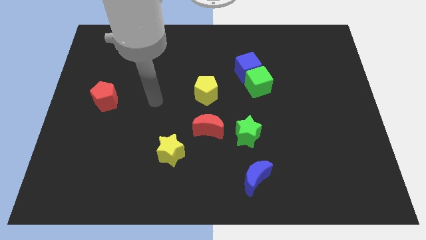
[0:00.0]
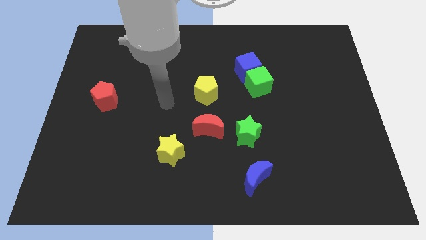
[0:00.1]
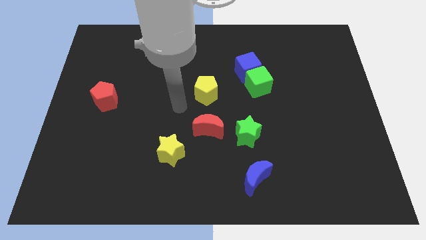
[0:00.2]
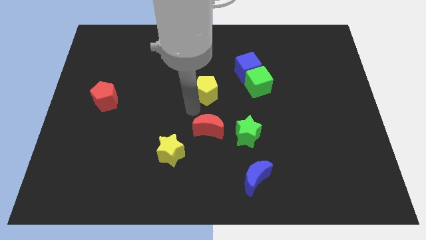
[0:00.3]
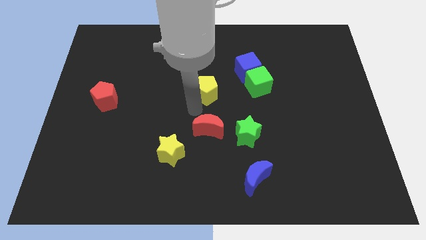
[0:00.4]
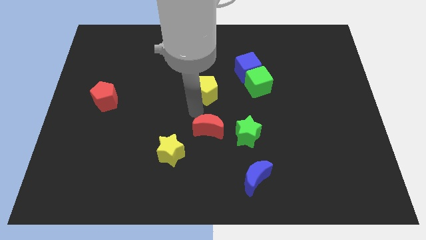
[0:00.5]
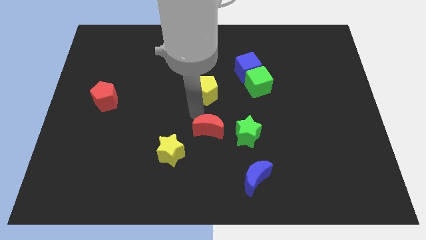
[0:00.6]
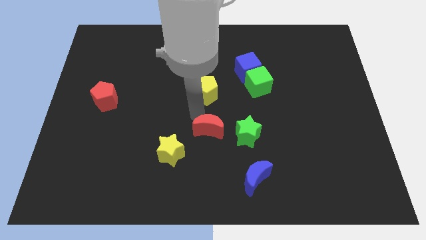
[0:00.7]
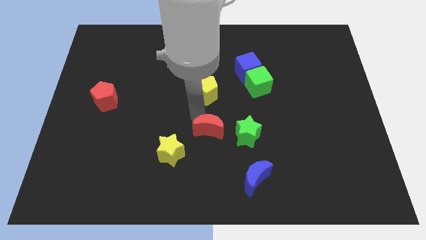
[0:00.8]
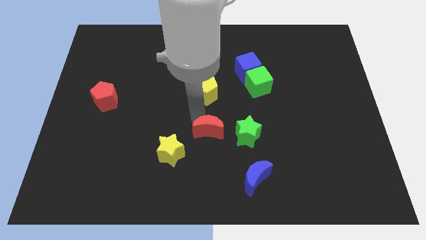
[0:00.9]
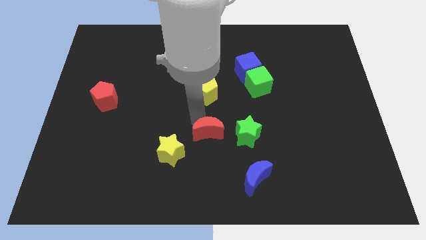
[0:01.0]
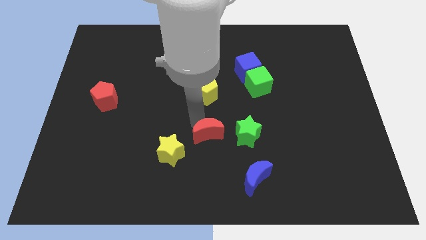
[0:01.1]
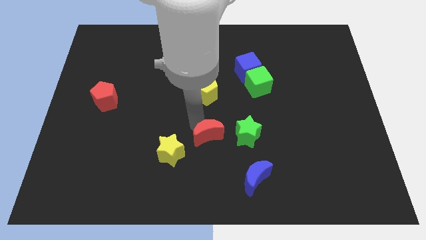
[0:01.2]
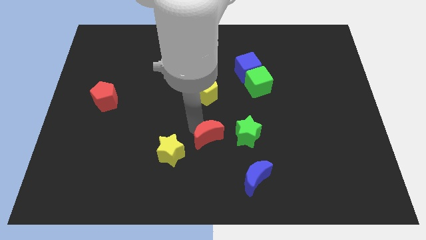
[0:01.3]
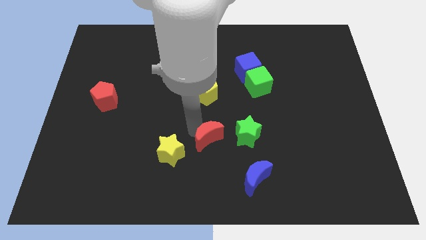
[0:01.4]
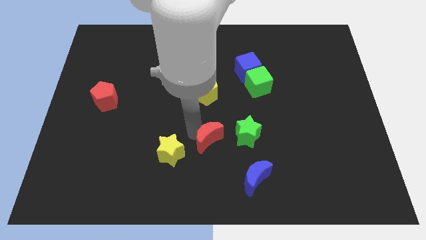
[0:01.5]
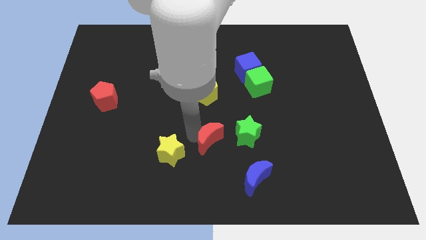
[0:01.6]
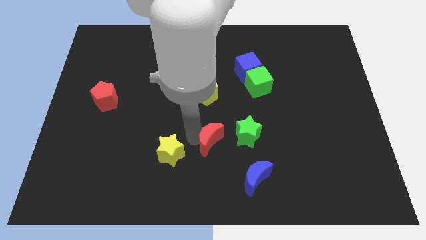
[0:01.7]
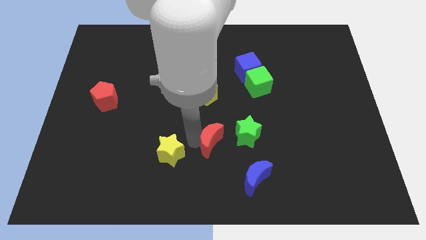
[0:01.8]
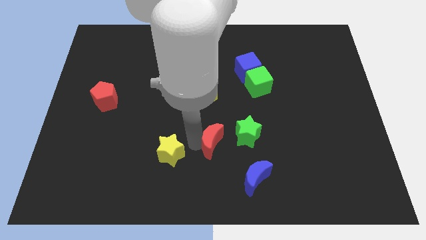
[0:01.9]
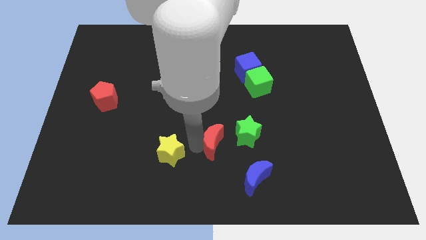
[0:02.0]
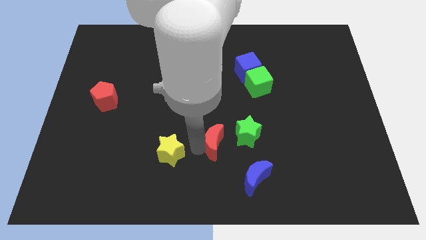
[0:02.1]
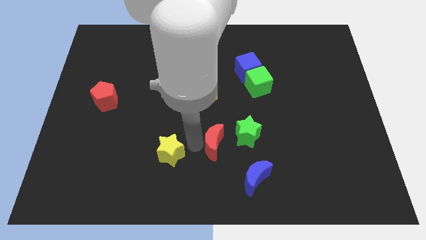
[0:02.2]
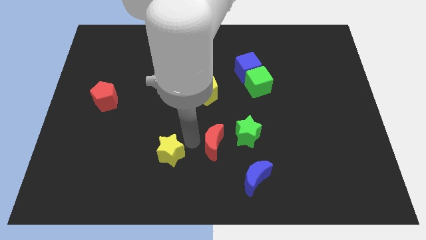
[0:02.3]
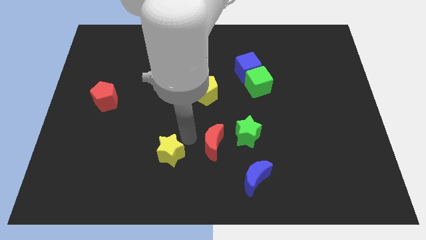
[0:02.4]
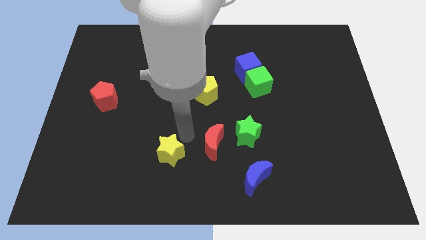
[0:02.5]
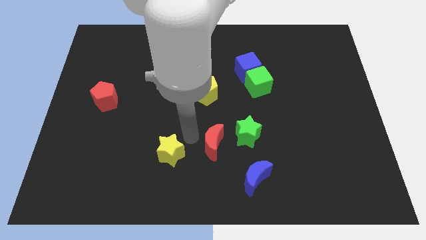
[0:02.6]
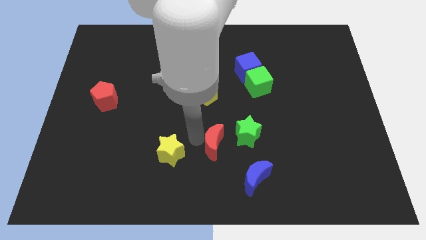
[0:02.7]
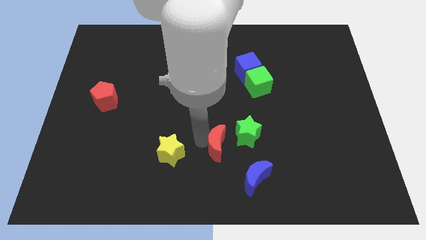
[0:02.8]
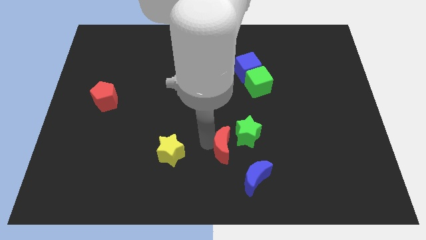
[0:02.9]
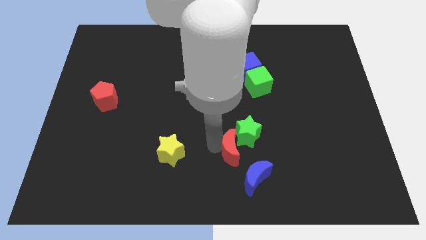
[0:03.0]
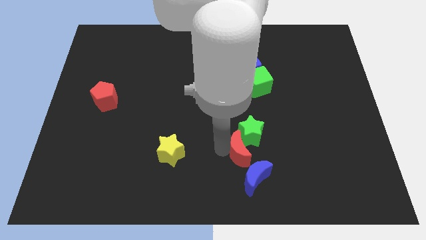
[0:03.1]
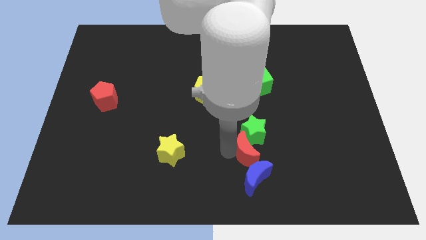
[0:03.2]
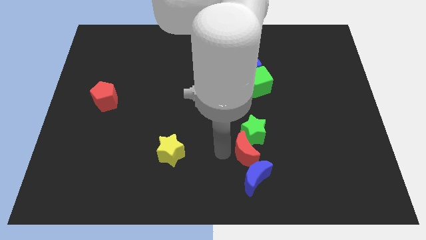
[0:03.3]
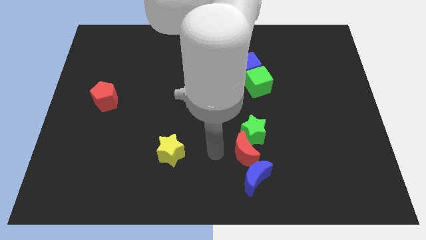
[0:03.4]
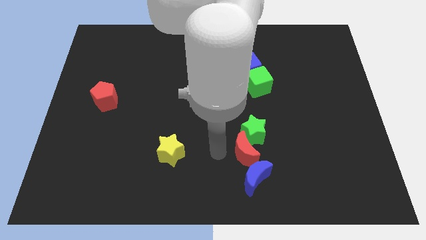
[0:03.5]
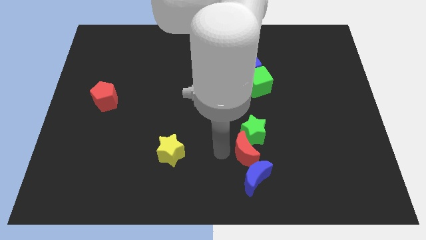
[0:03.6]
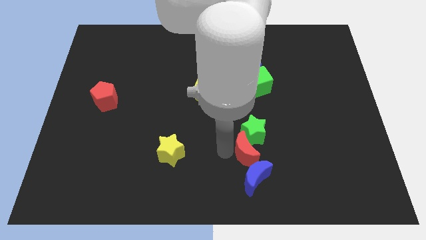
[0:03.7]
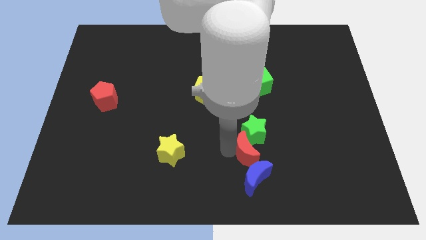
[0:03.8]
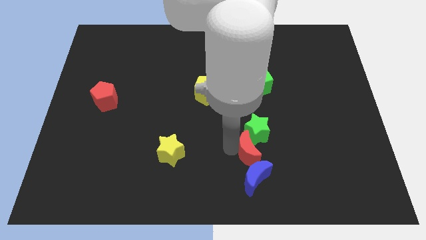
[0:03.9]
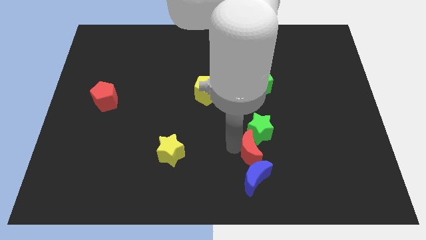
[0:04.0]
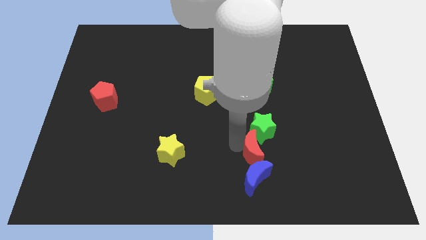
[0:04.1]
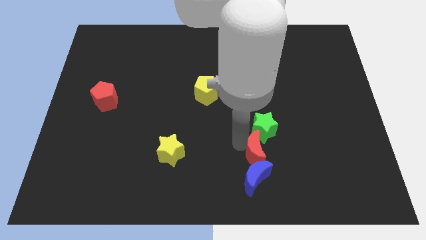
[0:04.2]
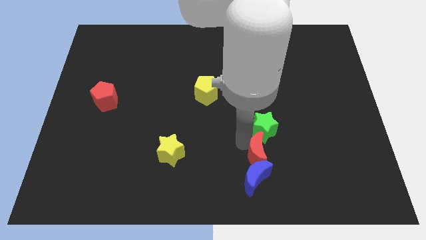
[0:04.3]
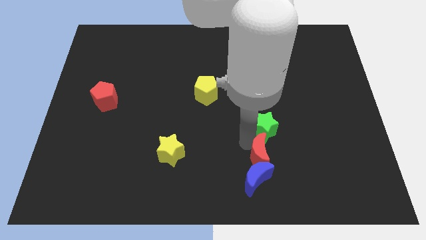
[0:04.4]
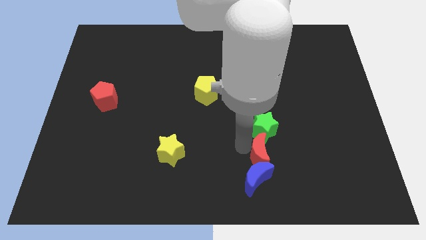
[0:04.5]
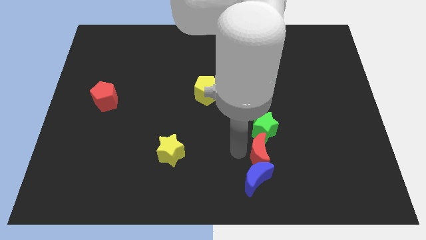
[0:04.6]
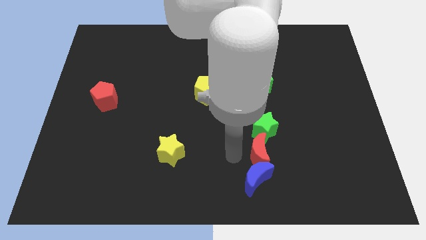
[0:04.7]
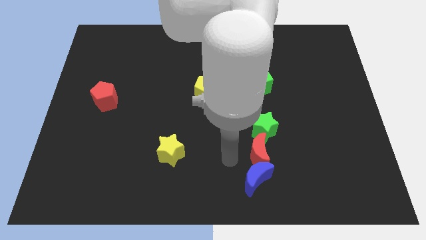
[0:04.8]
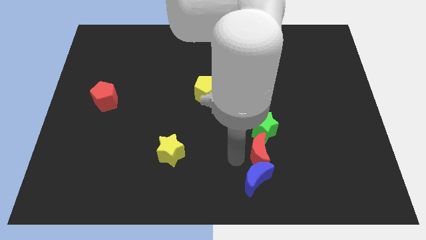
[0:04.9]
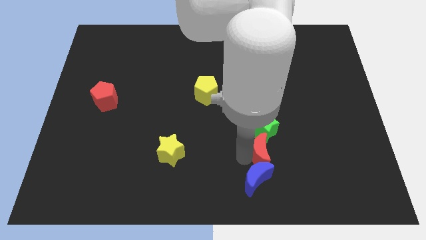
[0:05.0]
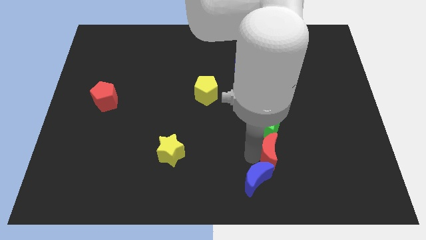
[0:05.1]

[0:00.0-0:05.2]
put the red moon diagonally down and to the right of the green star

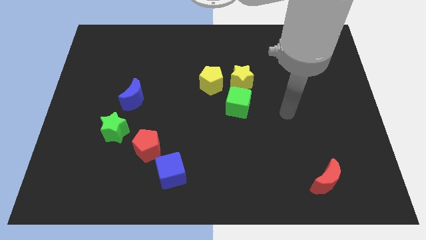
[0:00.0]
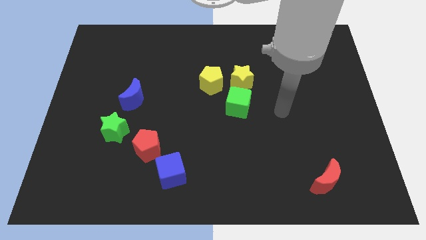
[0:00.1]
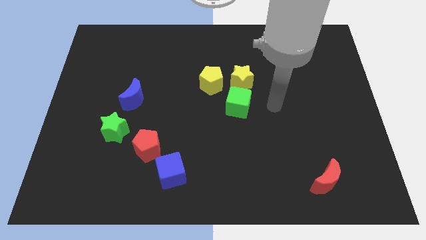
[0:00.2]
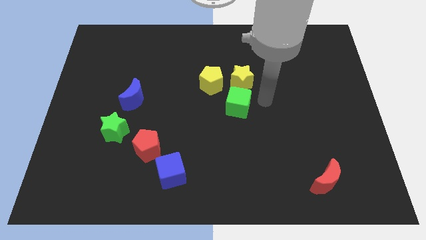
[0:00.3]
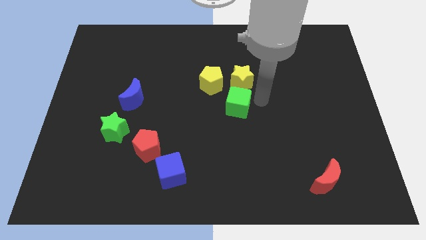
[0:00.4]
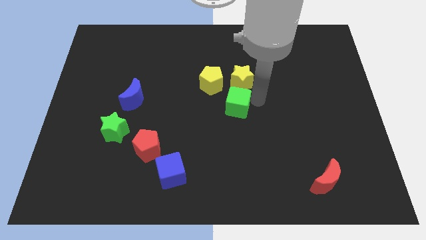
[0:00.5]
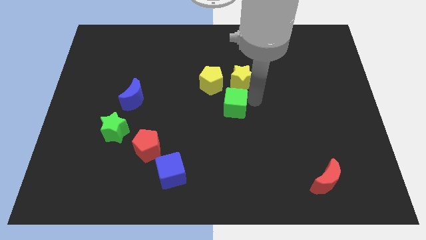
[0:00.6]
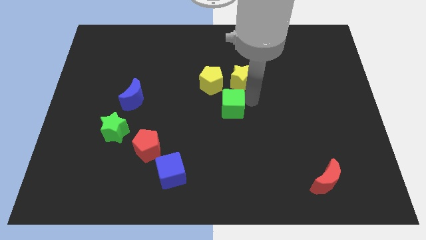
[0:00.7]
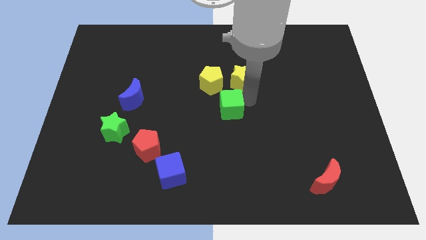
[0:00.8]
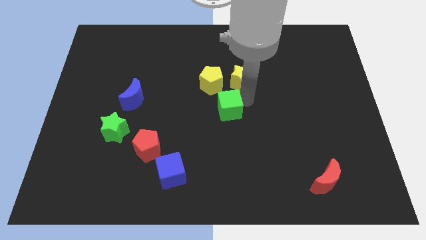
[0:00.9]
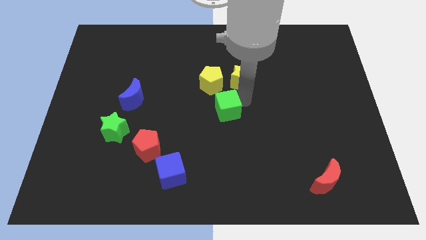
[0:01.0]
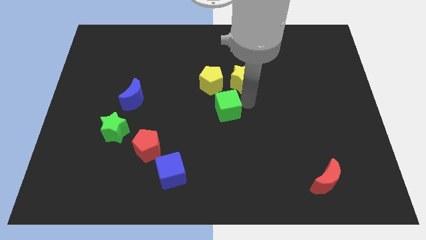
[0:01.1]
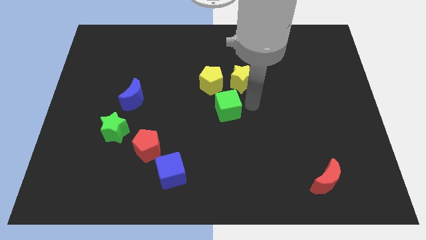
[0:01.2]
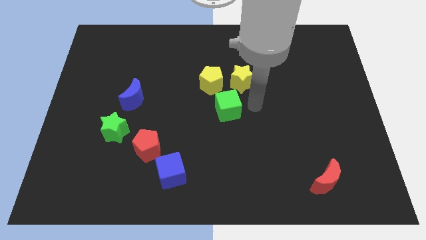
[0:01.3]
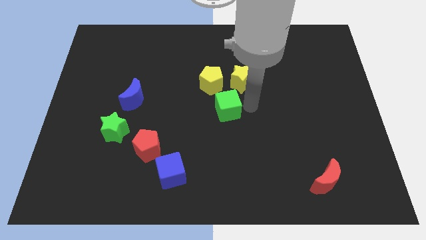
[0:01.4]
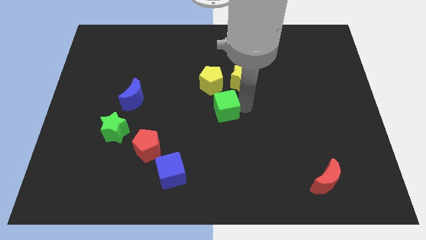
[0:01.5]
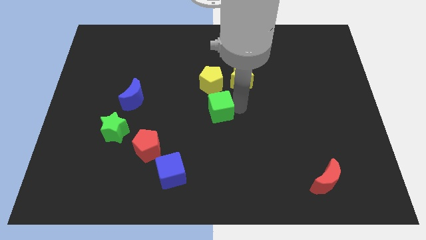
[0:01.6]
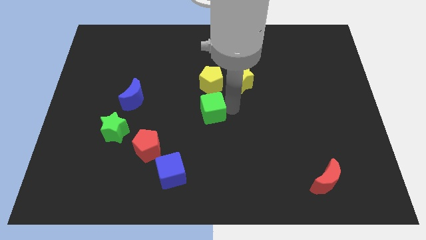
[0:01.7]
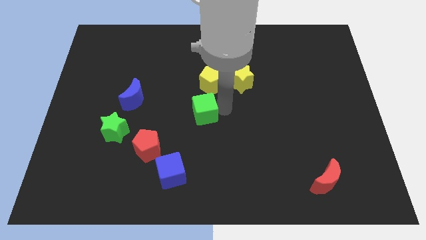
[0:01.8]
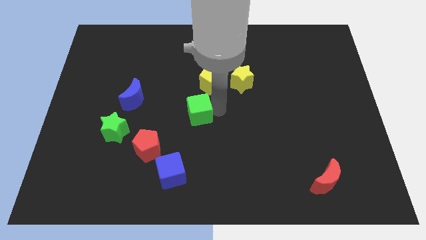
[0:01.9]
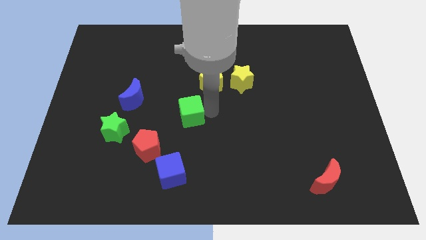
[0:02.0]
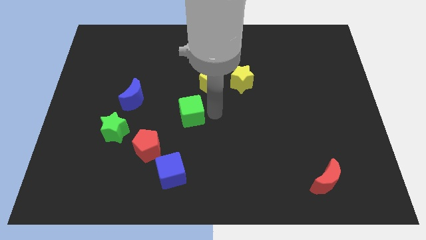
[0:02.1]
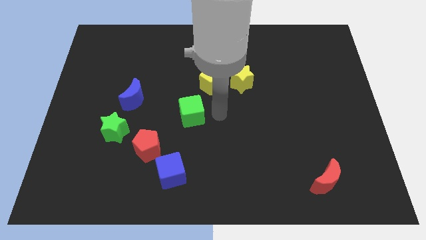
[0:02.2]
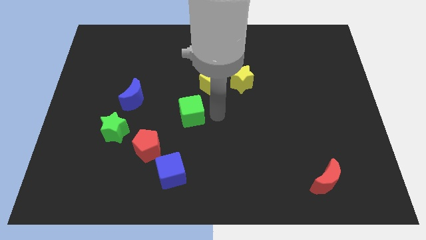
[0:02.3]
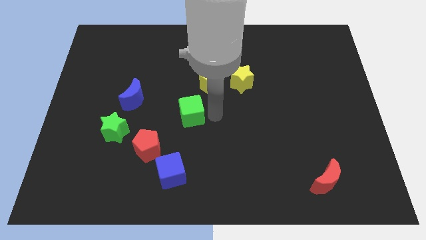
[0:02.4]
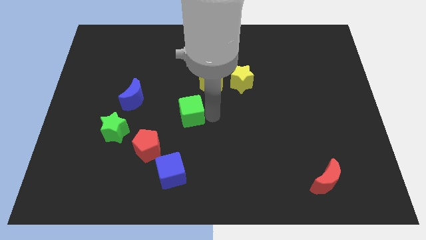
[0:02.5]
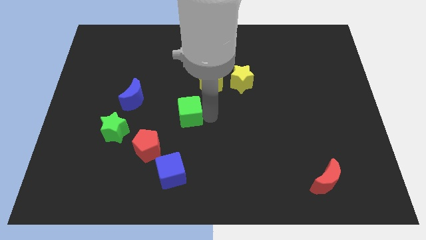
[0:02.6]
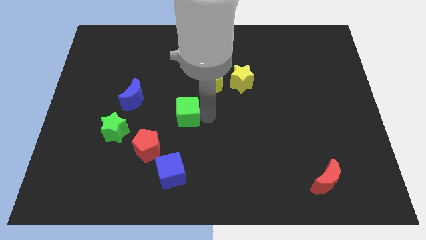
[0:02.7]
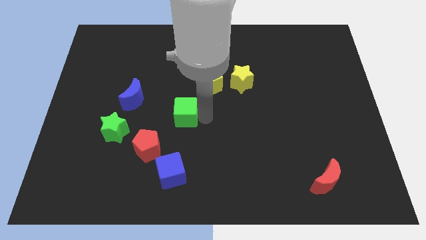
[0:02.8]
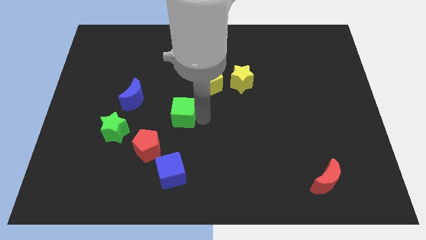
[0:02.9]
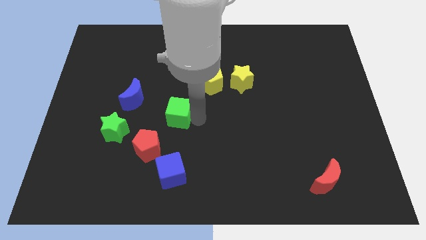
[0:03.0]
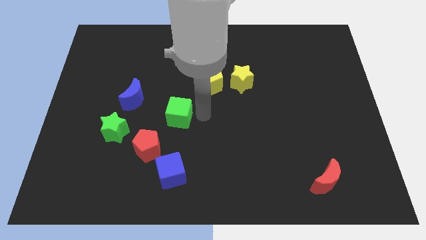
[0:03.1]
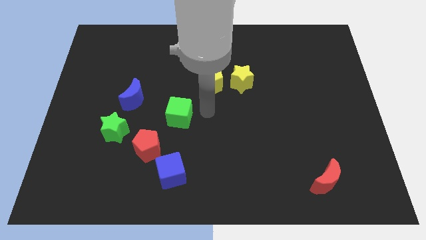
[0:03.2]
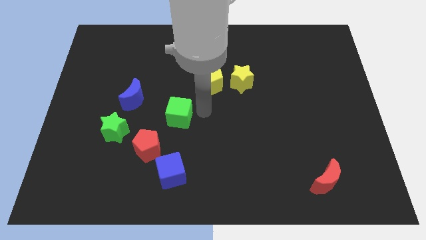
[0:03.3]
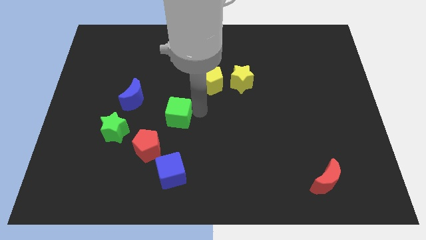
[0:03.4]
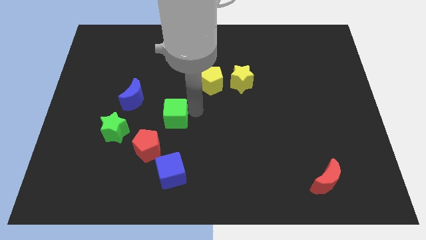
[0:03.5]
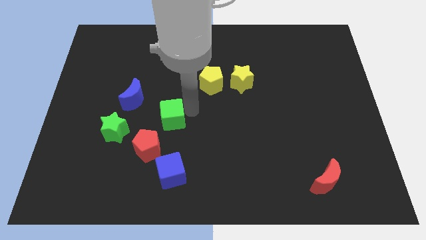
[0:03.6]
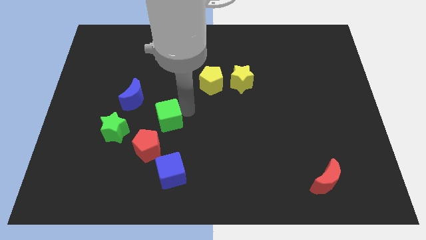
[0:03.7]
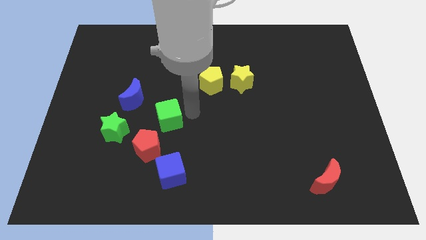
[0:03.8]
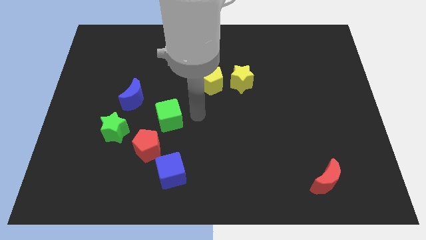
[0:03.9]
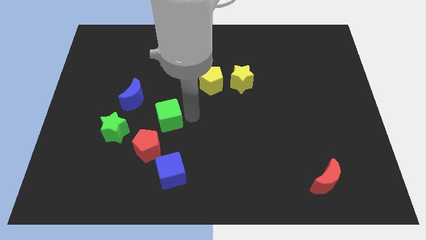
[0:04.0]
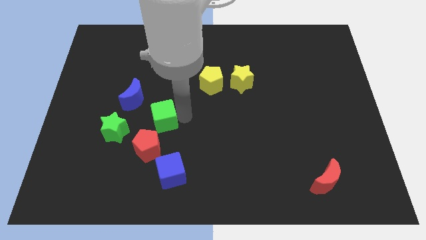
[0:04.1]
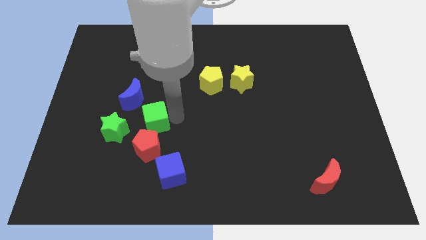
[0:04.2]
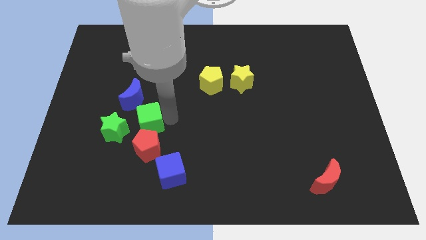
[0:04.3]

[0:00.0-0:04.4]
slide the green cube below the blue moon
